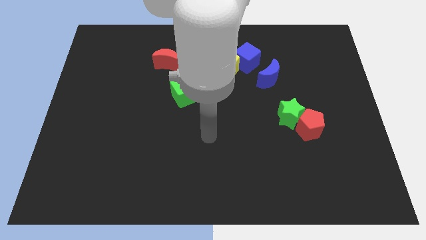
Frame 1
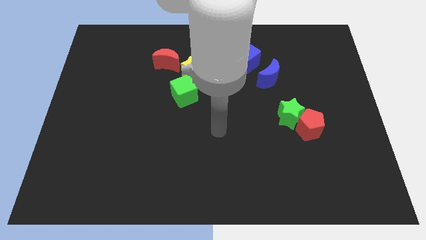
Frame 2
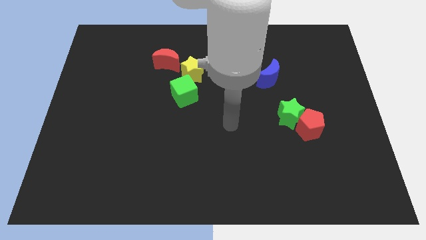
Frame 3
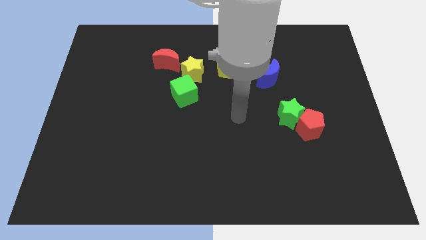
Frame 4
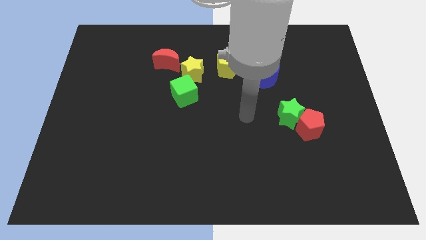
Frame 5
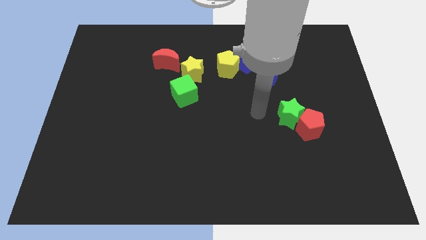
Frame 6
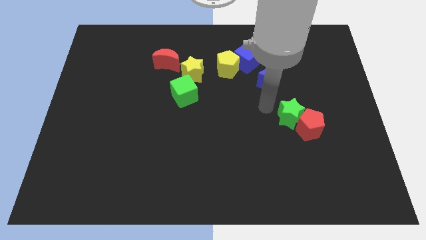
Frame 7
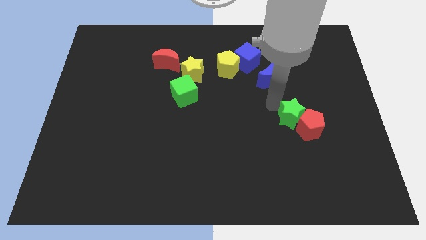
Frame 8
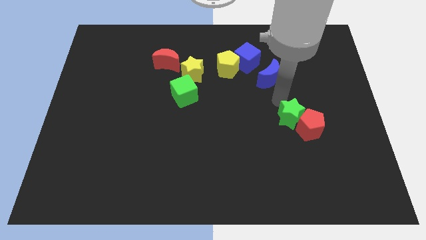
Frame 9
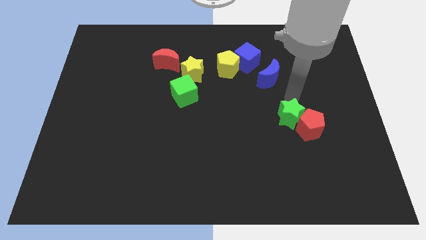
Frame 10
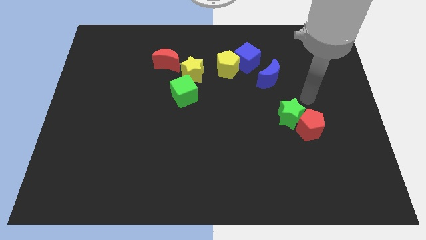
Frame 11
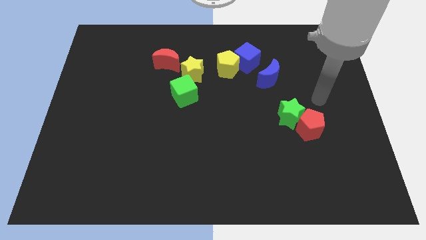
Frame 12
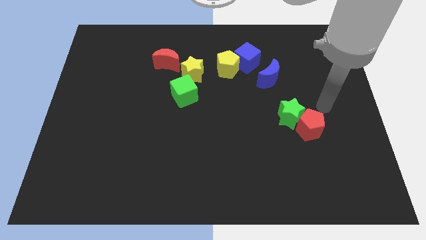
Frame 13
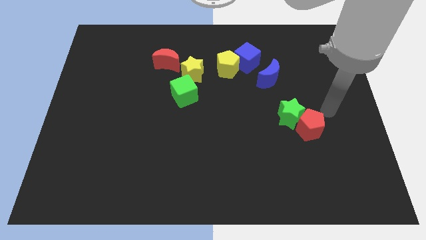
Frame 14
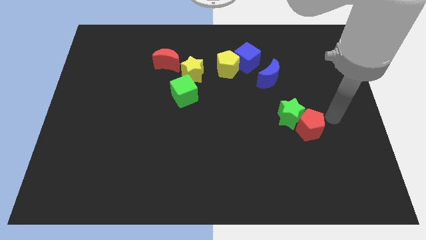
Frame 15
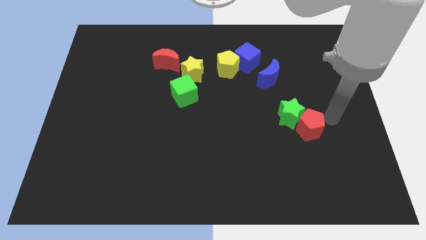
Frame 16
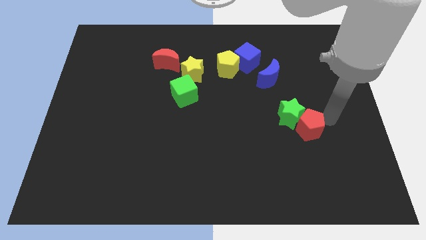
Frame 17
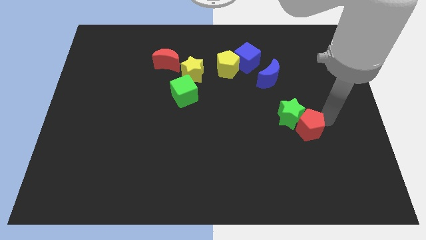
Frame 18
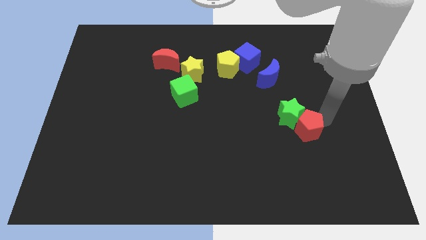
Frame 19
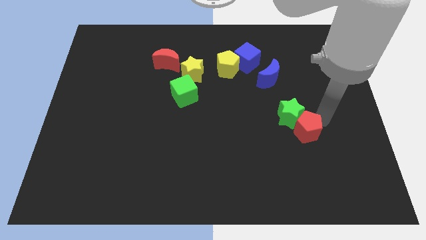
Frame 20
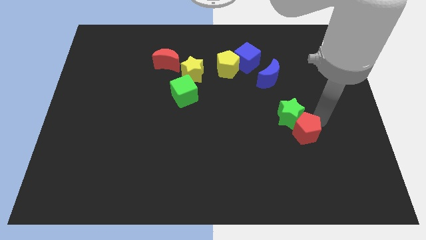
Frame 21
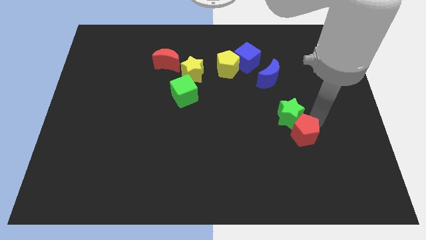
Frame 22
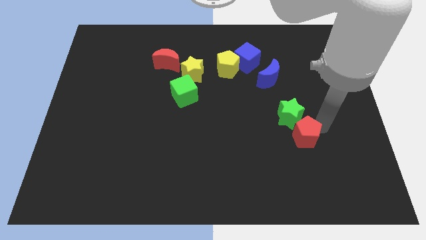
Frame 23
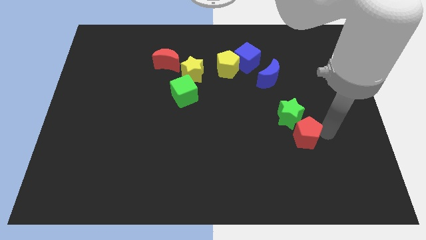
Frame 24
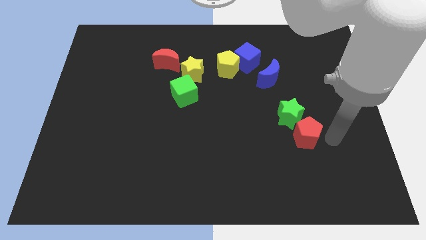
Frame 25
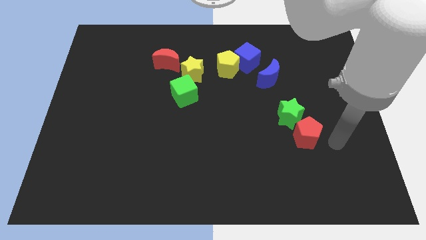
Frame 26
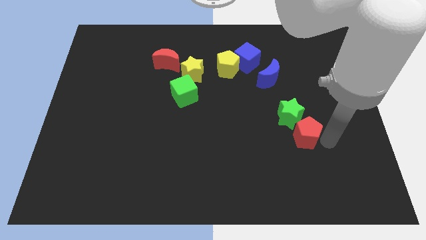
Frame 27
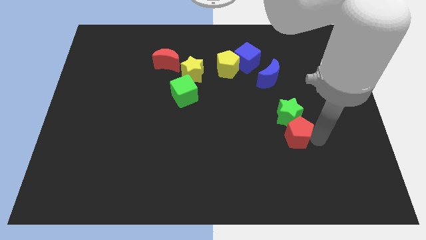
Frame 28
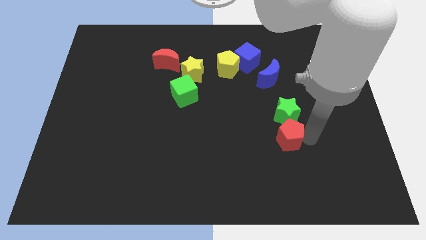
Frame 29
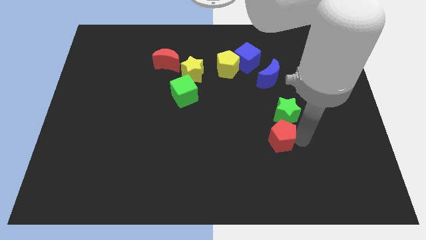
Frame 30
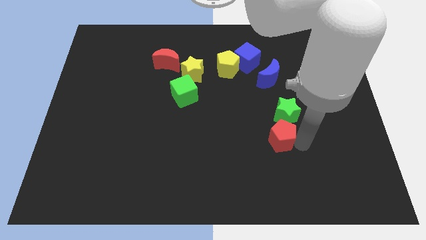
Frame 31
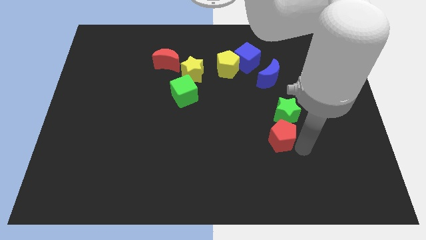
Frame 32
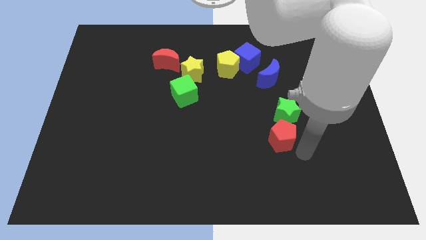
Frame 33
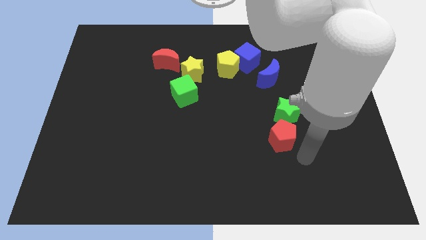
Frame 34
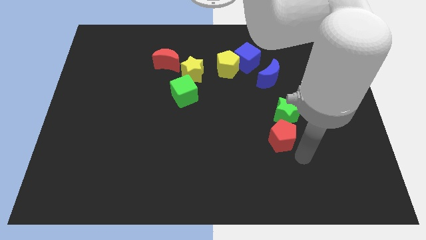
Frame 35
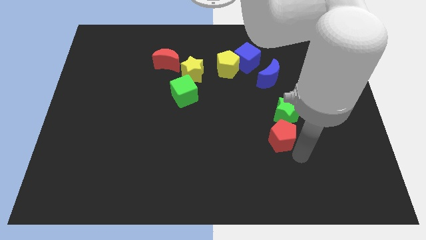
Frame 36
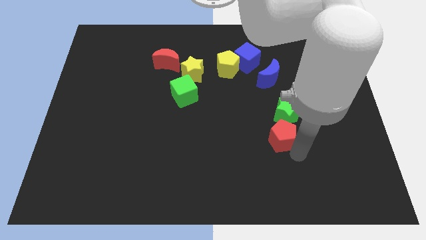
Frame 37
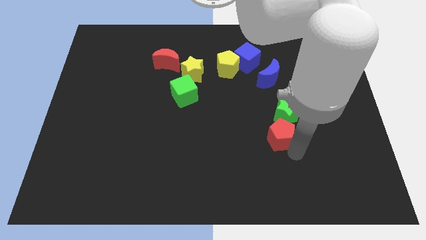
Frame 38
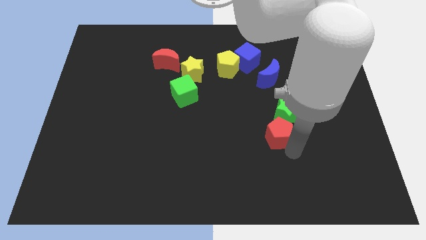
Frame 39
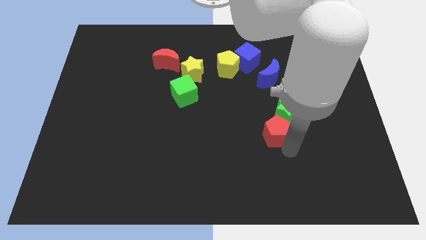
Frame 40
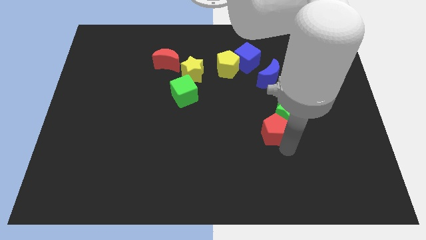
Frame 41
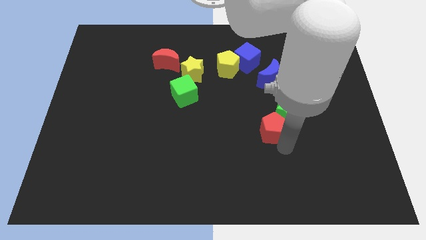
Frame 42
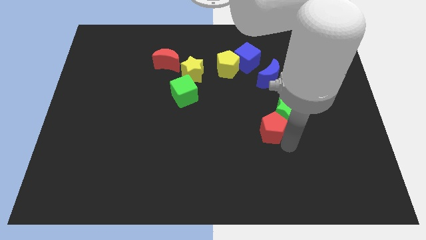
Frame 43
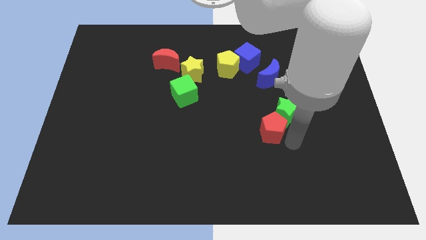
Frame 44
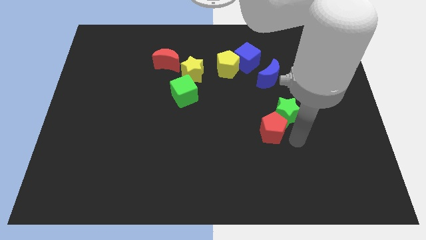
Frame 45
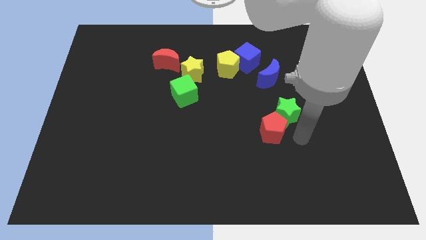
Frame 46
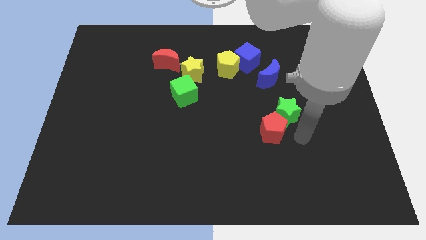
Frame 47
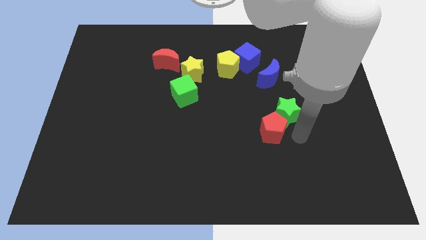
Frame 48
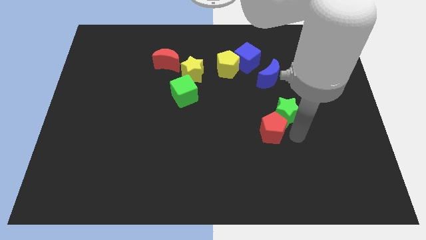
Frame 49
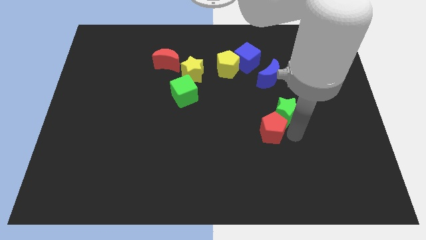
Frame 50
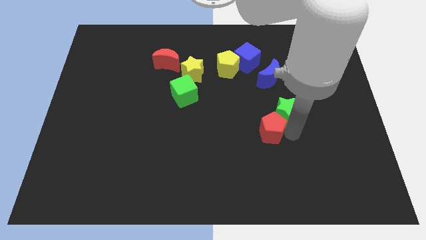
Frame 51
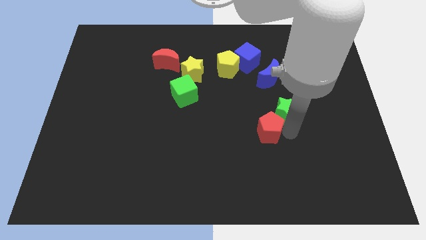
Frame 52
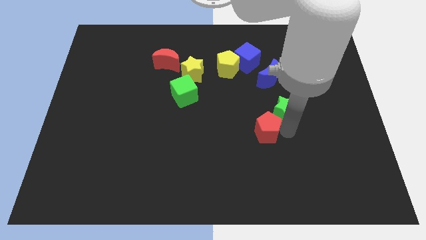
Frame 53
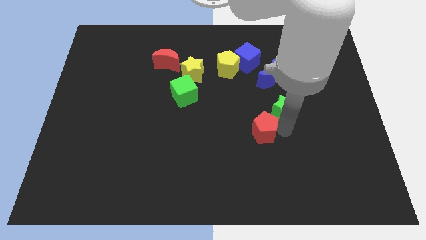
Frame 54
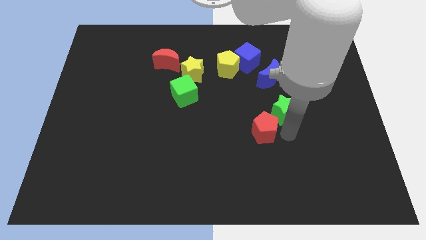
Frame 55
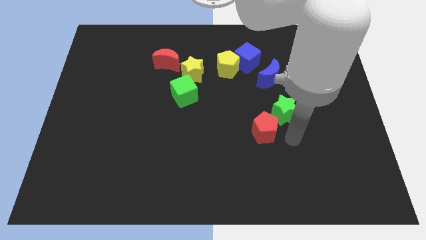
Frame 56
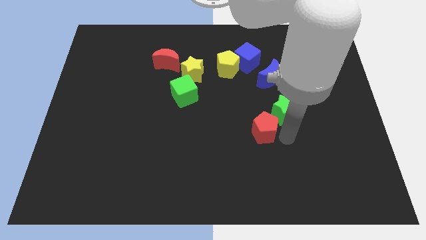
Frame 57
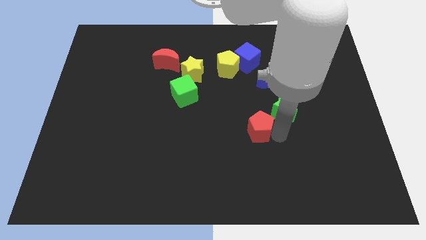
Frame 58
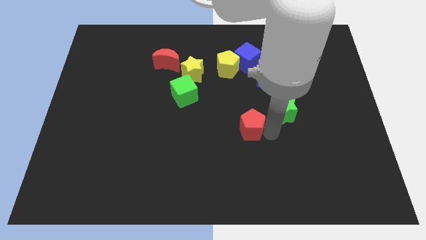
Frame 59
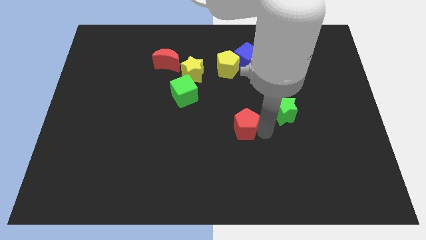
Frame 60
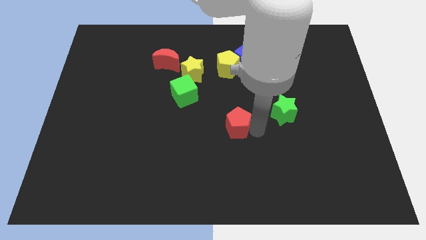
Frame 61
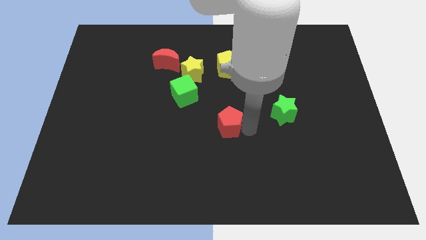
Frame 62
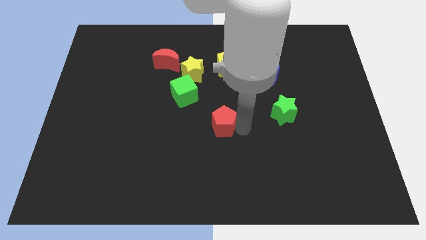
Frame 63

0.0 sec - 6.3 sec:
put the red pentagon to the bottom right side of the green cube
